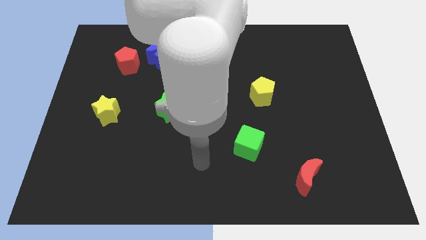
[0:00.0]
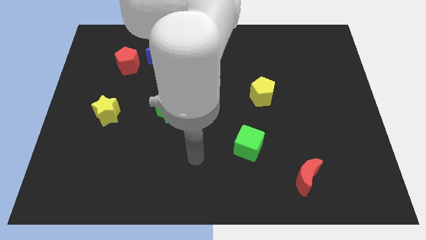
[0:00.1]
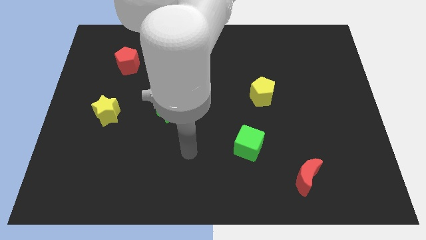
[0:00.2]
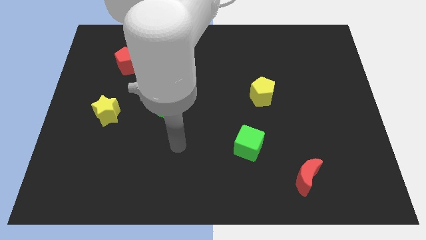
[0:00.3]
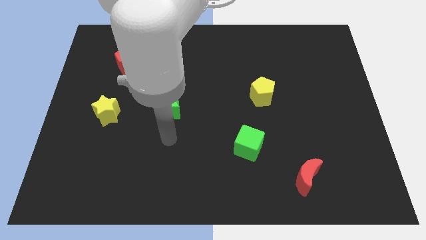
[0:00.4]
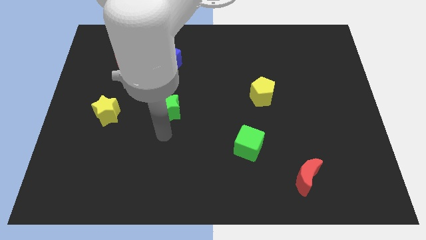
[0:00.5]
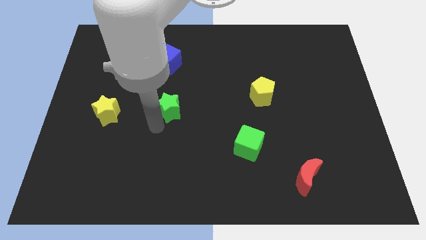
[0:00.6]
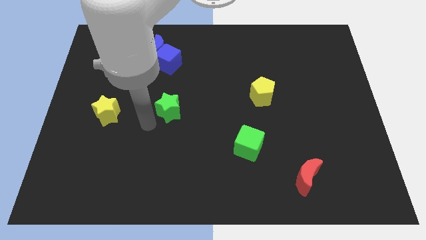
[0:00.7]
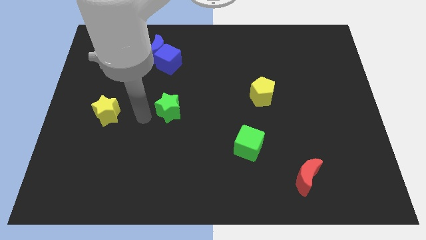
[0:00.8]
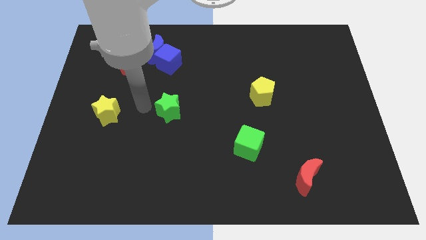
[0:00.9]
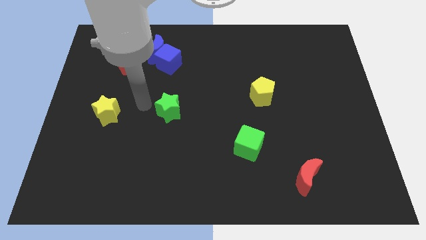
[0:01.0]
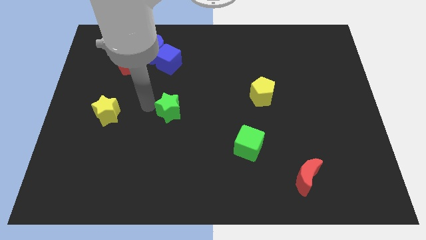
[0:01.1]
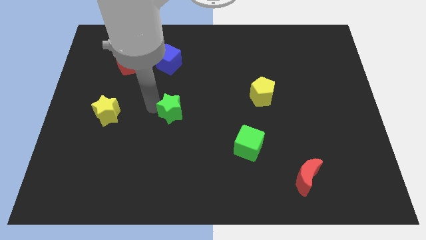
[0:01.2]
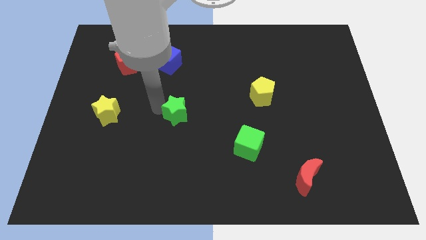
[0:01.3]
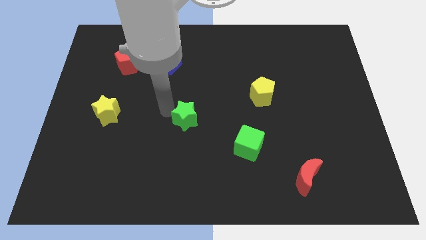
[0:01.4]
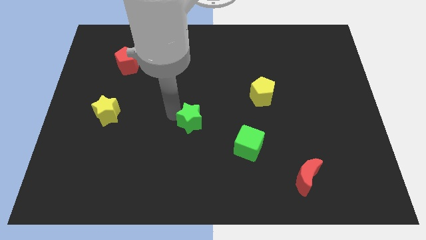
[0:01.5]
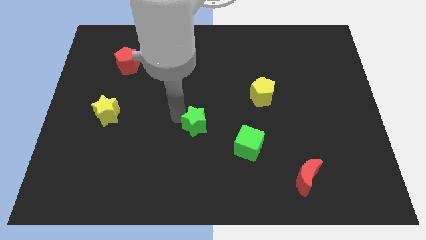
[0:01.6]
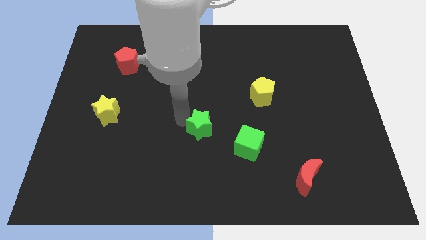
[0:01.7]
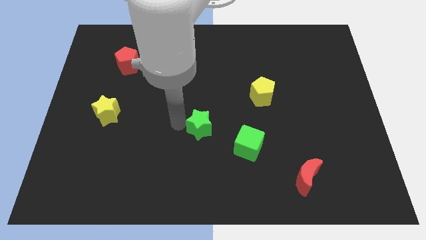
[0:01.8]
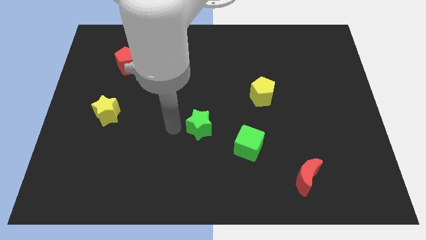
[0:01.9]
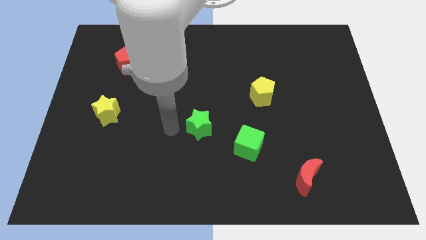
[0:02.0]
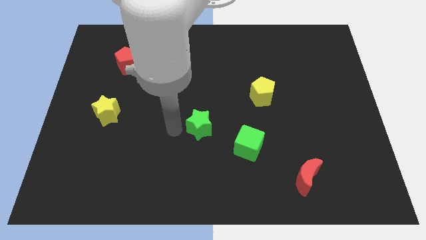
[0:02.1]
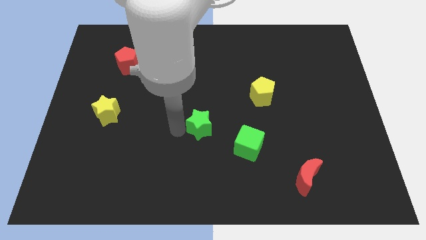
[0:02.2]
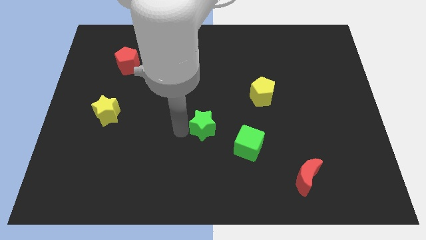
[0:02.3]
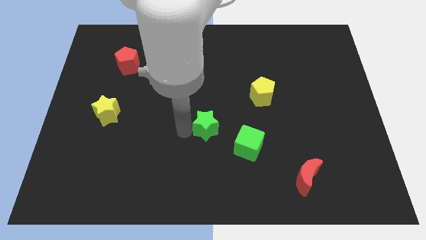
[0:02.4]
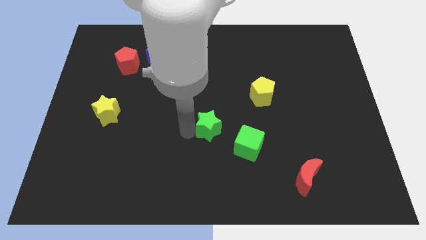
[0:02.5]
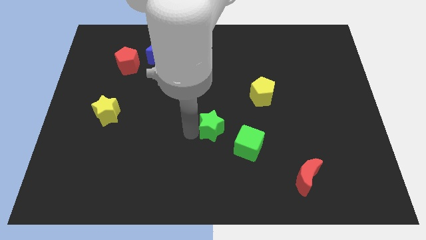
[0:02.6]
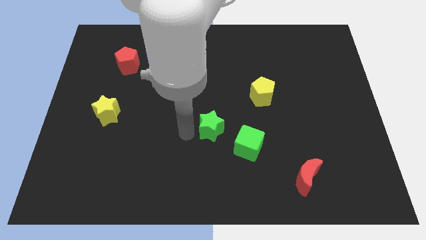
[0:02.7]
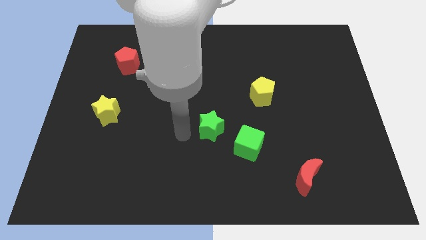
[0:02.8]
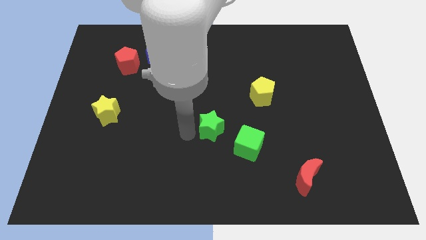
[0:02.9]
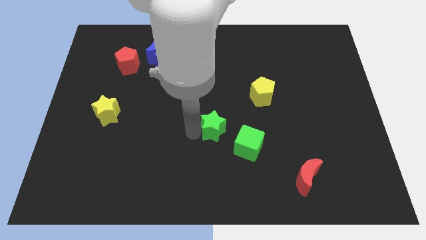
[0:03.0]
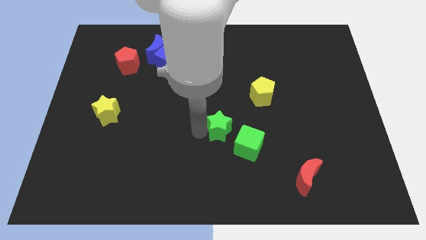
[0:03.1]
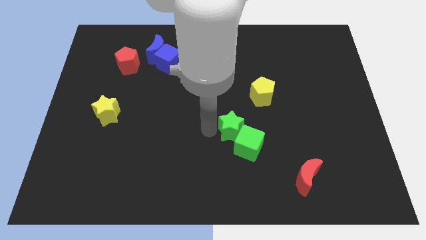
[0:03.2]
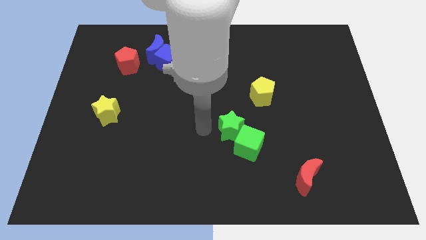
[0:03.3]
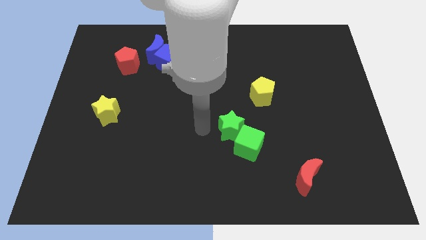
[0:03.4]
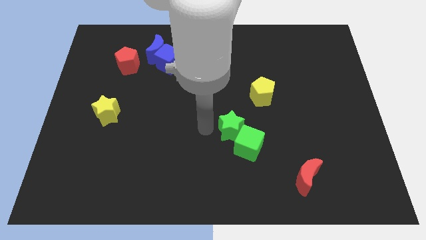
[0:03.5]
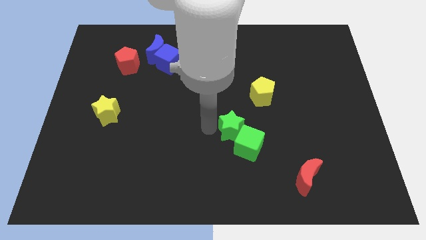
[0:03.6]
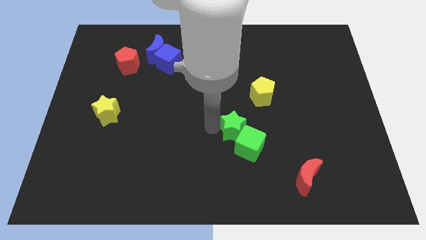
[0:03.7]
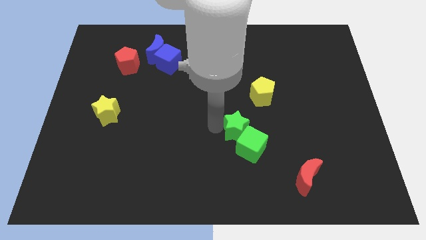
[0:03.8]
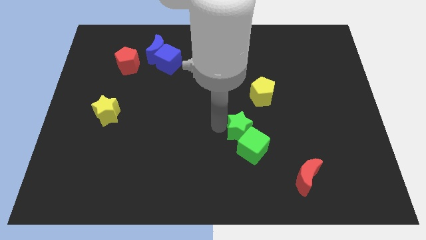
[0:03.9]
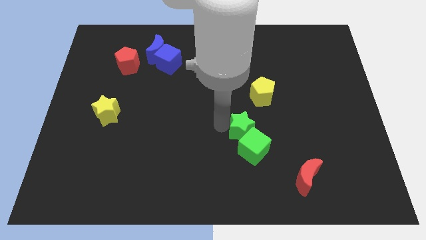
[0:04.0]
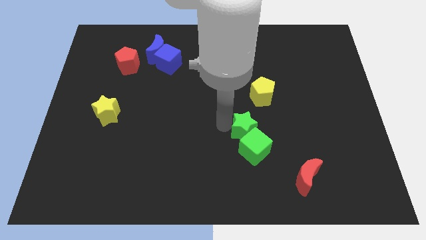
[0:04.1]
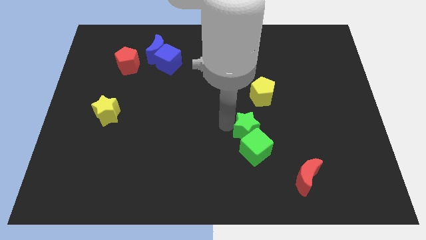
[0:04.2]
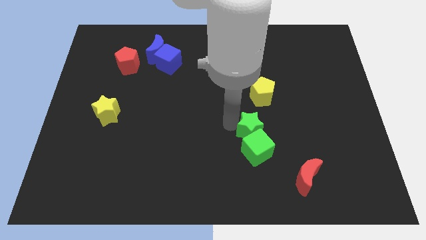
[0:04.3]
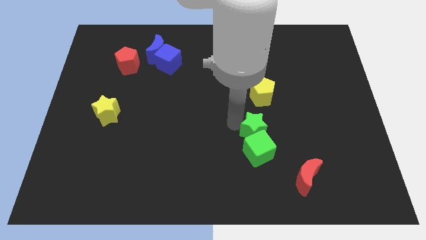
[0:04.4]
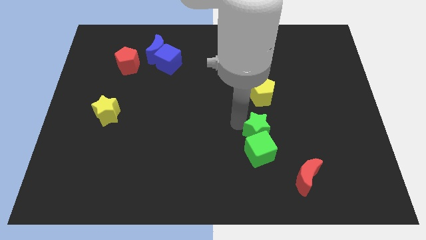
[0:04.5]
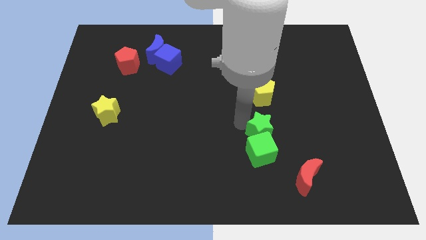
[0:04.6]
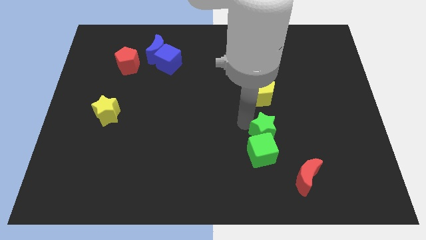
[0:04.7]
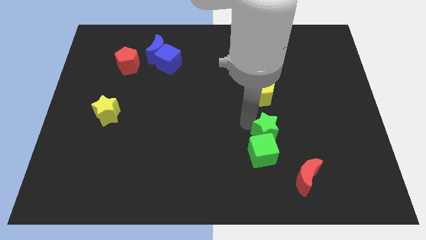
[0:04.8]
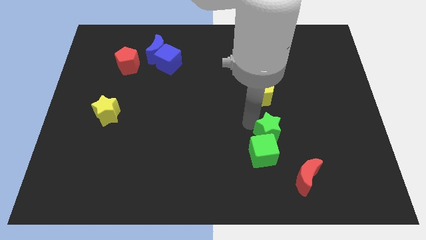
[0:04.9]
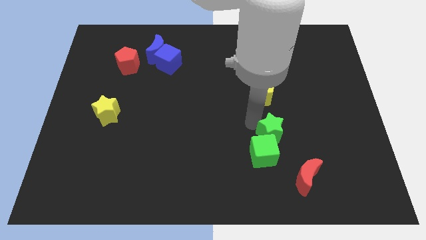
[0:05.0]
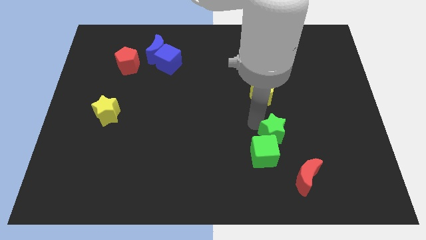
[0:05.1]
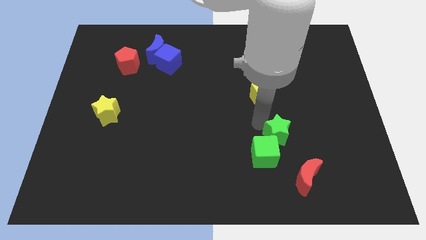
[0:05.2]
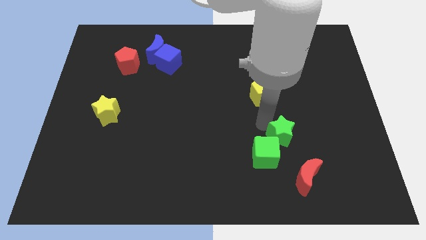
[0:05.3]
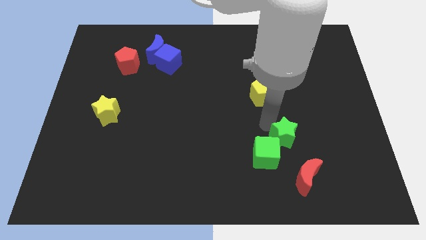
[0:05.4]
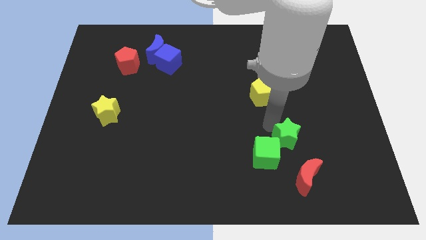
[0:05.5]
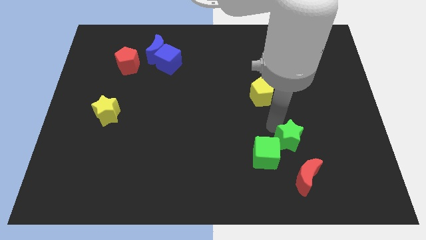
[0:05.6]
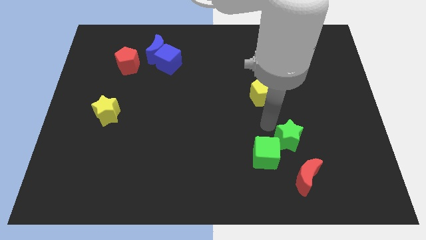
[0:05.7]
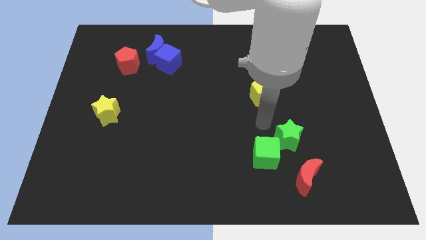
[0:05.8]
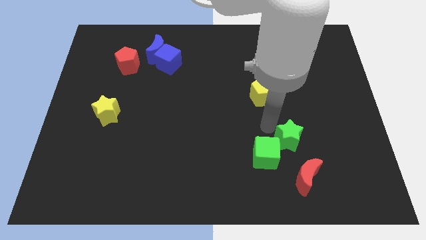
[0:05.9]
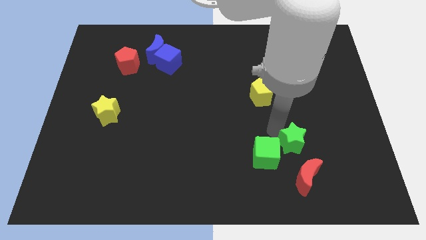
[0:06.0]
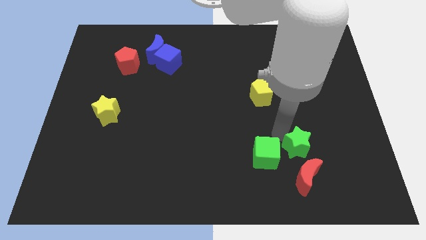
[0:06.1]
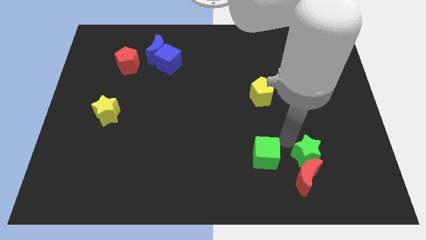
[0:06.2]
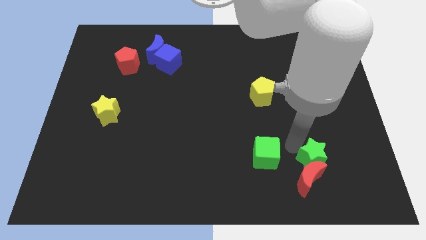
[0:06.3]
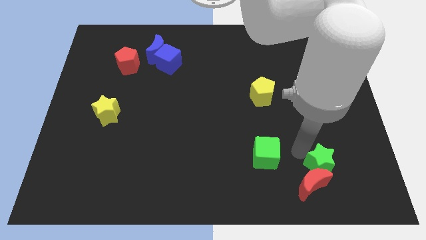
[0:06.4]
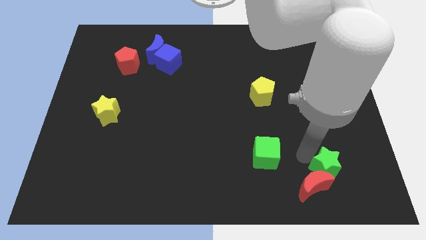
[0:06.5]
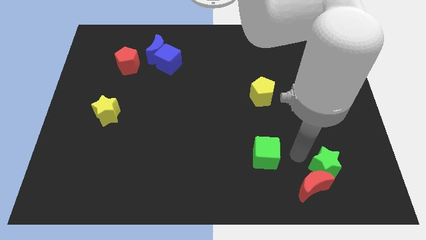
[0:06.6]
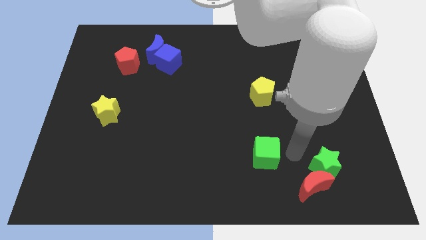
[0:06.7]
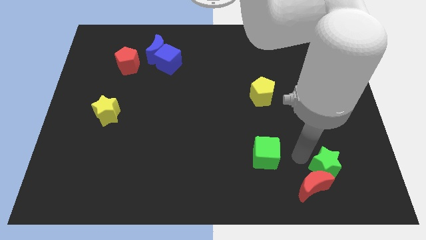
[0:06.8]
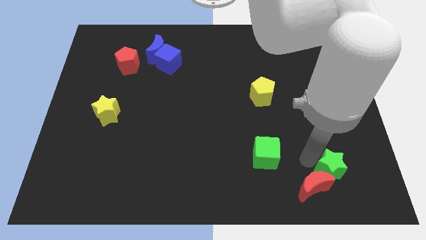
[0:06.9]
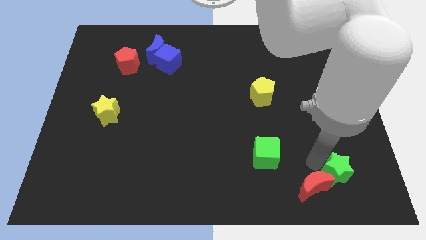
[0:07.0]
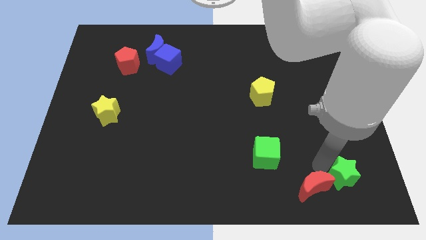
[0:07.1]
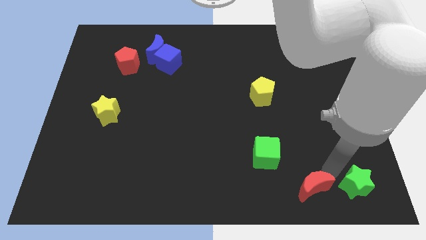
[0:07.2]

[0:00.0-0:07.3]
move the green star to the lower right corner
